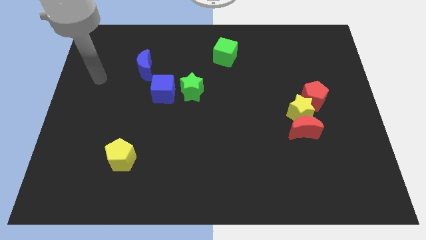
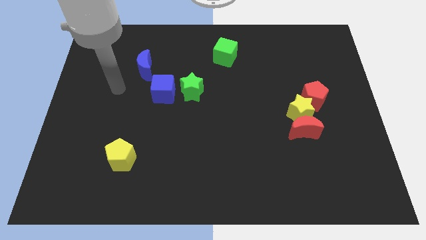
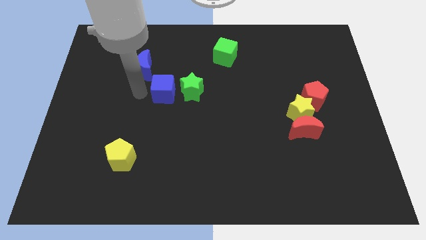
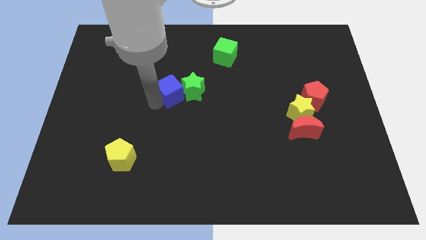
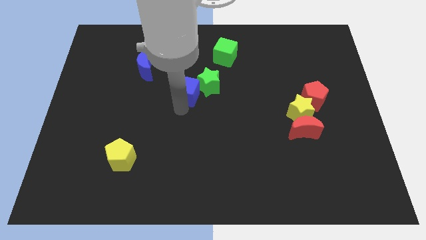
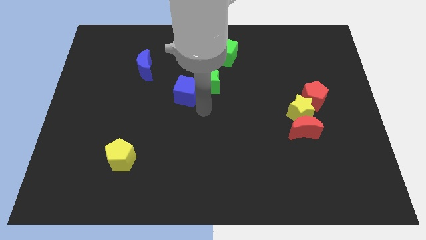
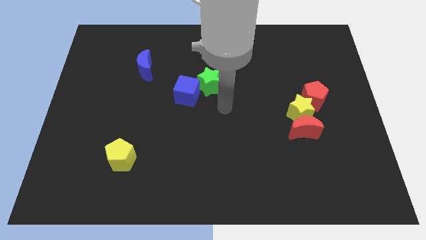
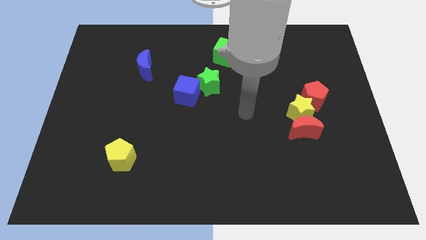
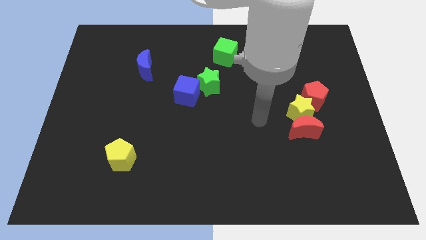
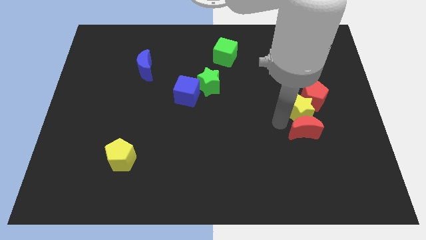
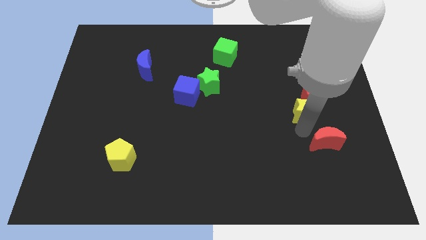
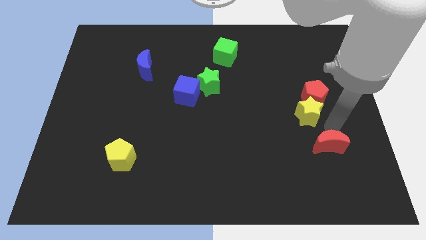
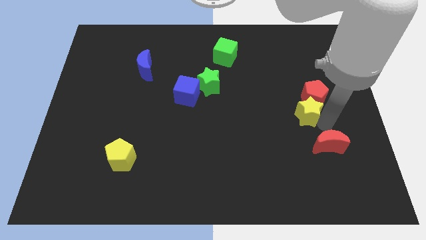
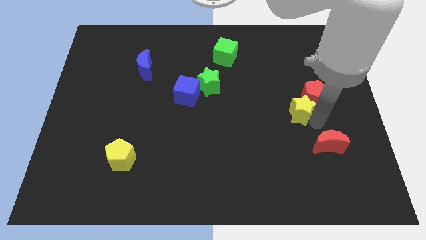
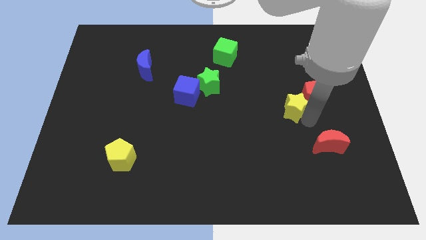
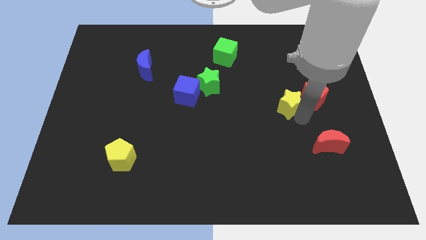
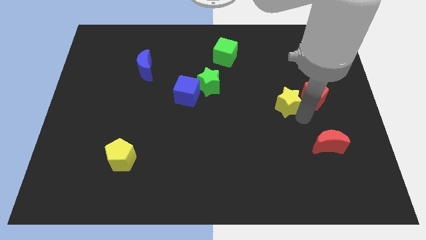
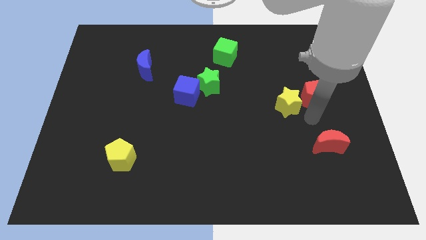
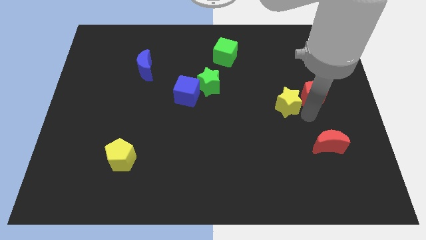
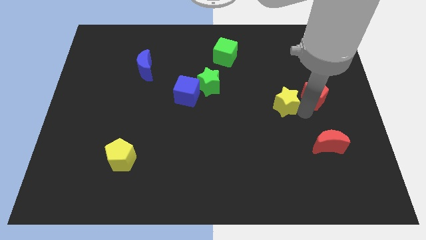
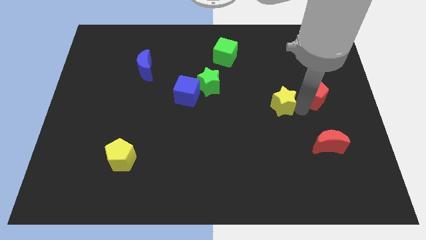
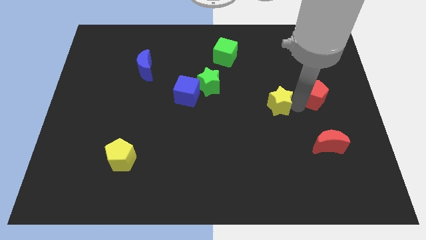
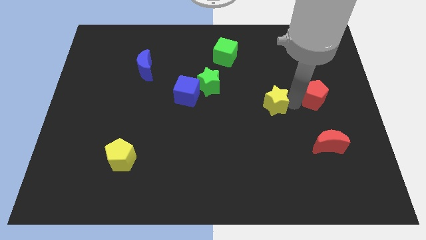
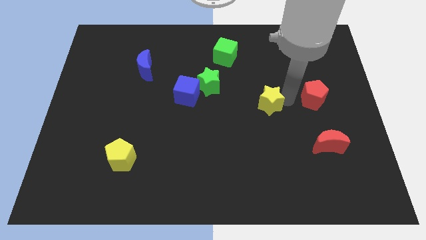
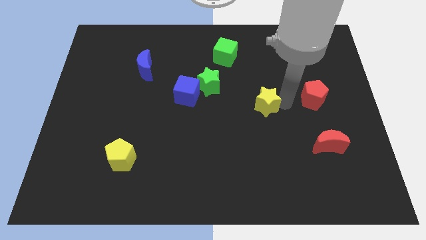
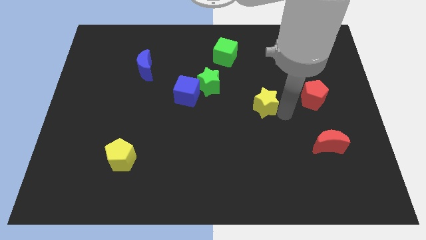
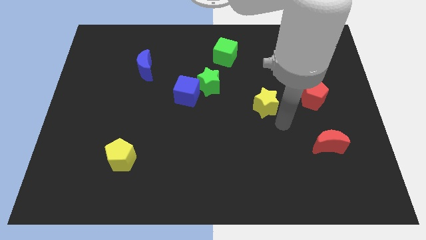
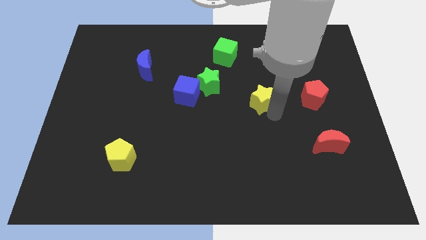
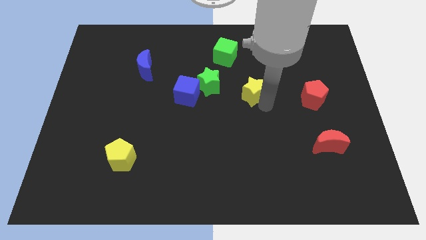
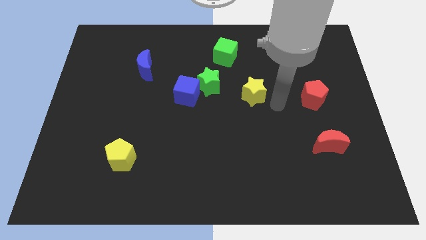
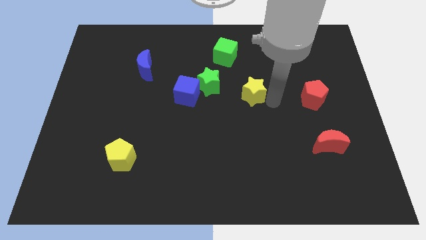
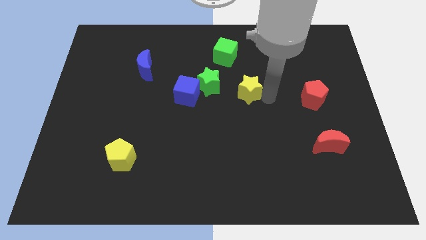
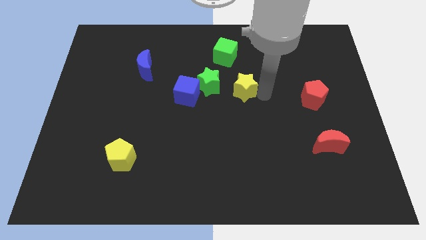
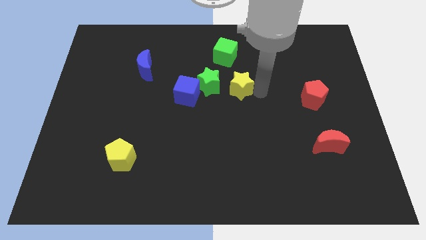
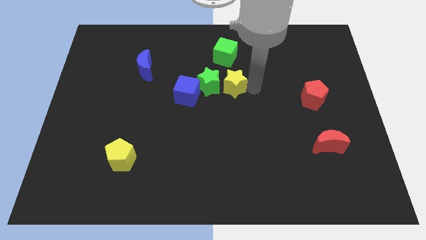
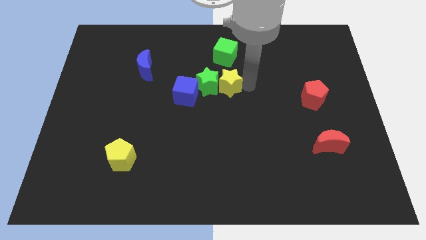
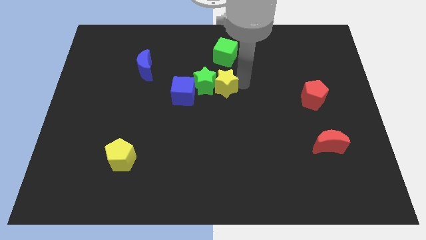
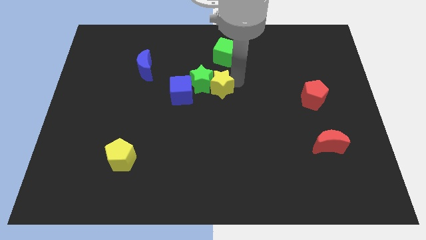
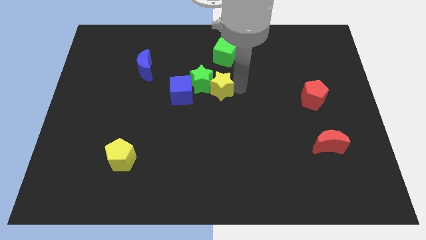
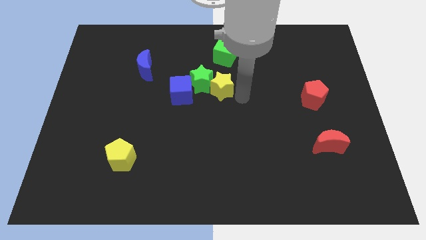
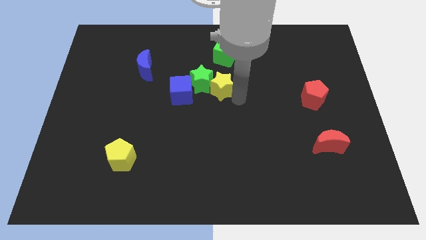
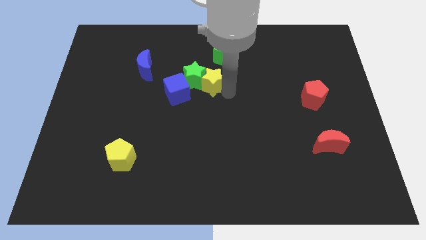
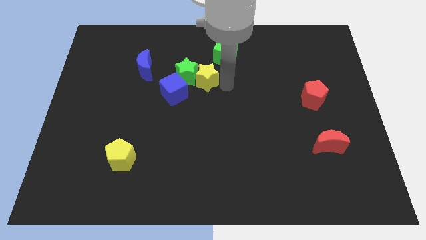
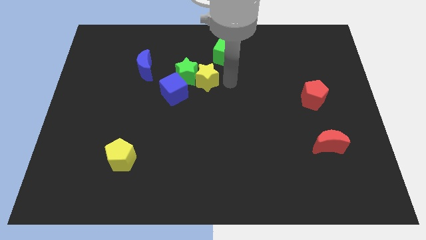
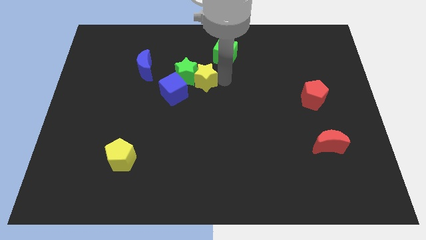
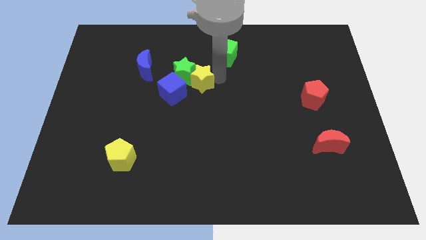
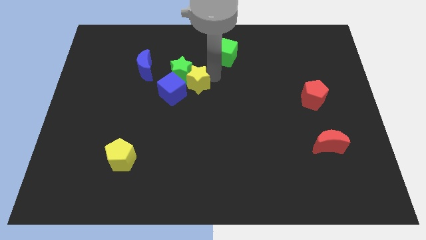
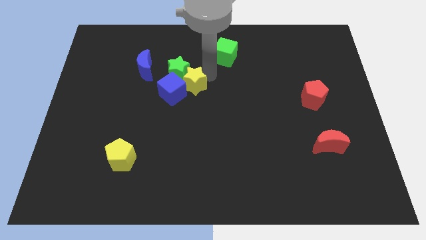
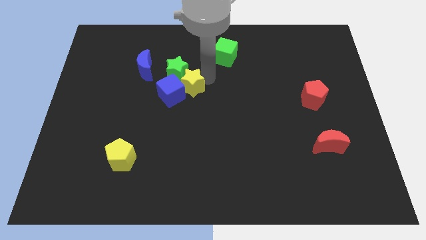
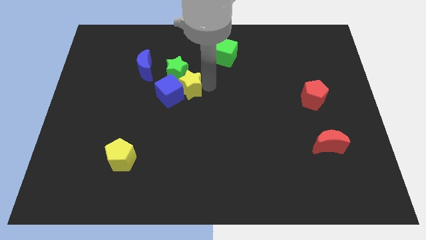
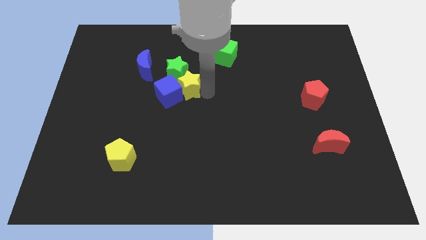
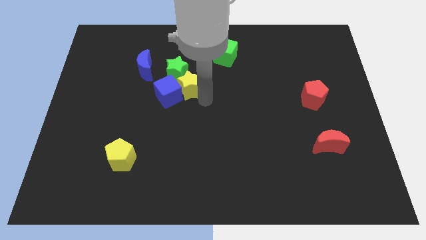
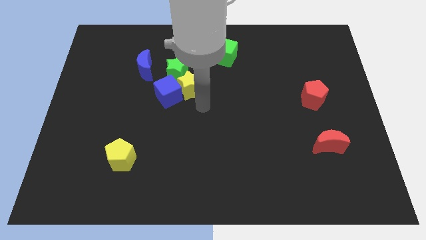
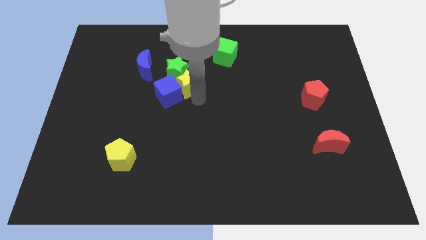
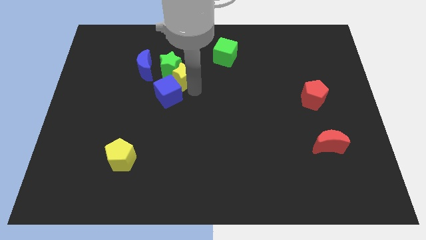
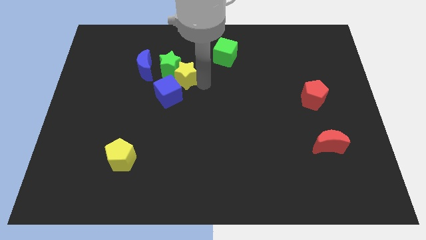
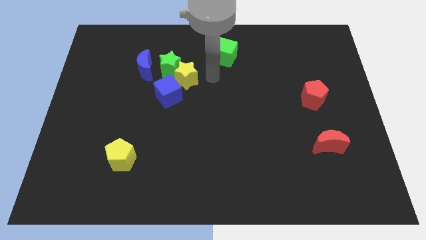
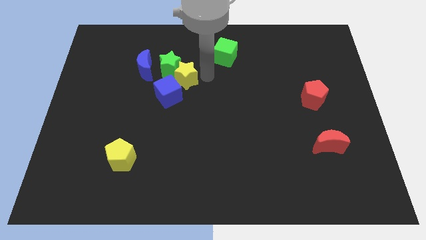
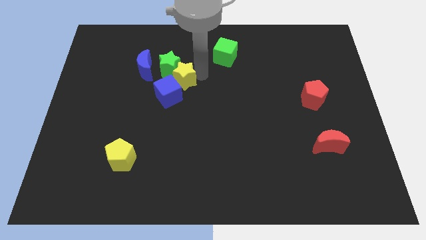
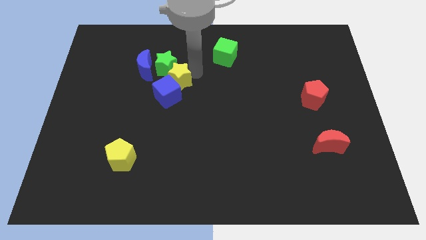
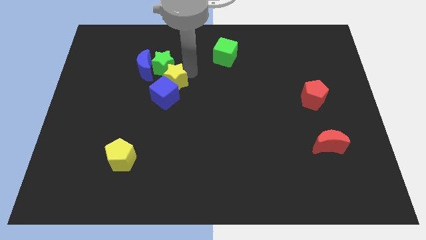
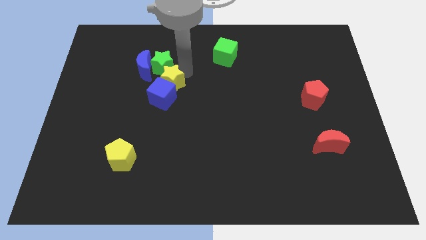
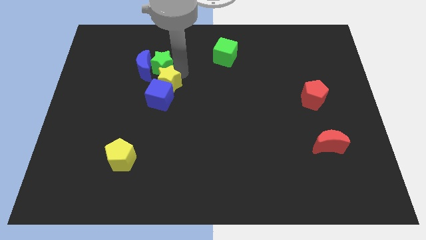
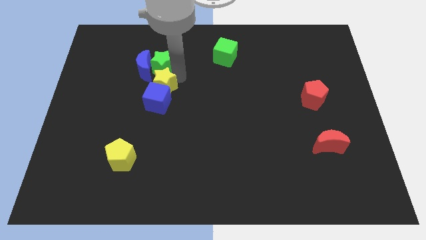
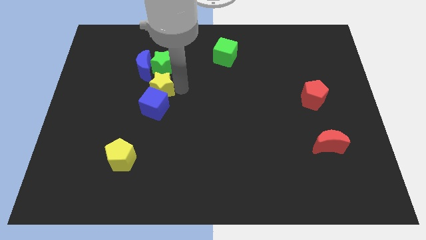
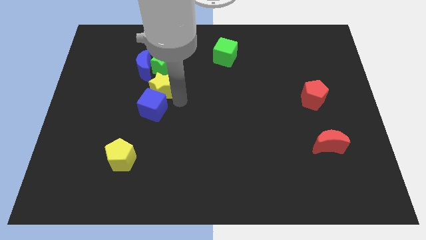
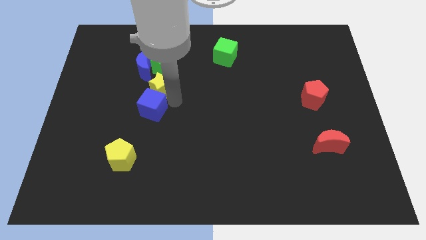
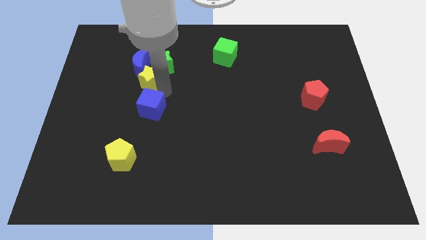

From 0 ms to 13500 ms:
move the yellow star next to the blue moon

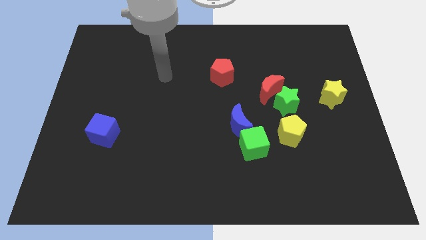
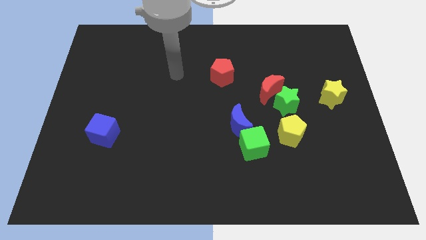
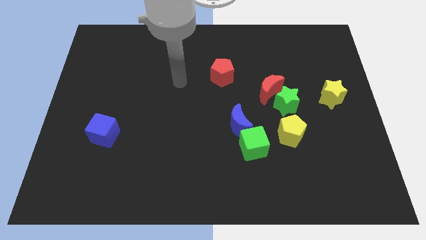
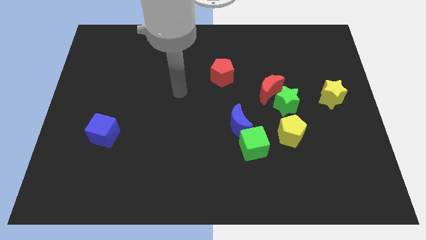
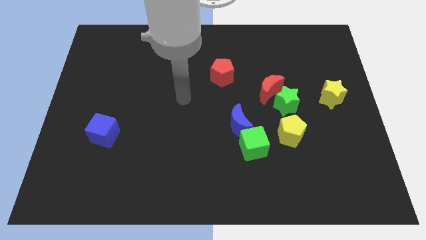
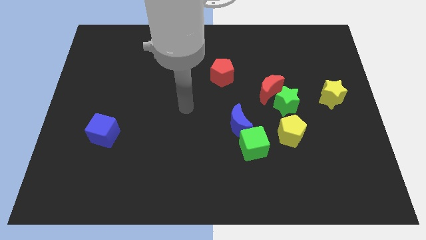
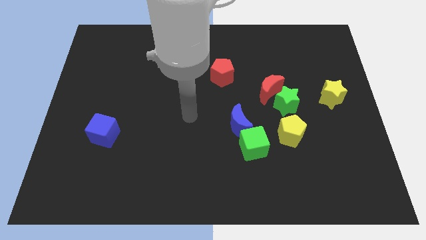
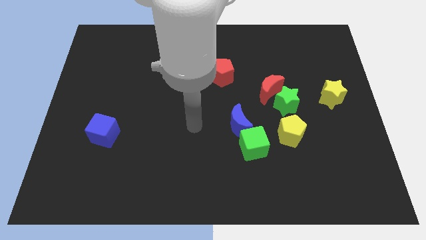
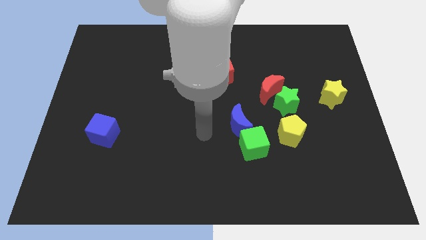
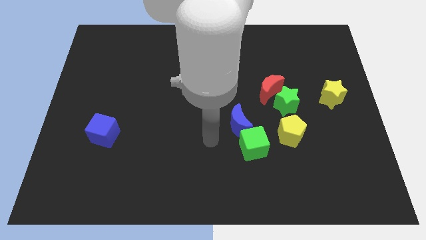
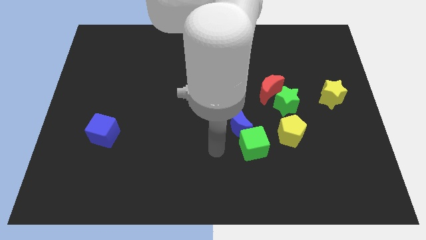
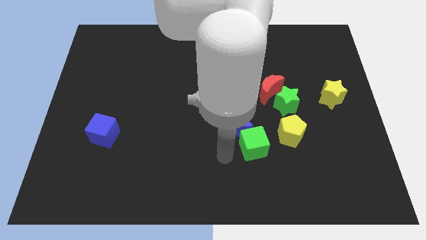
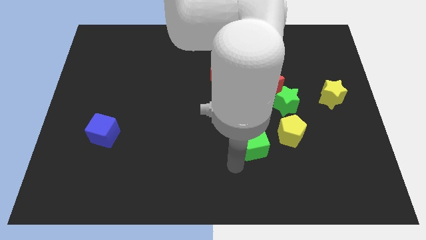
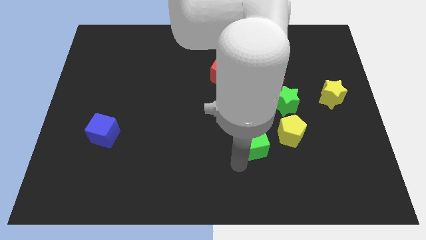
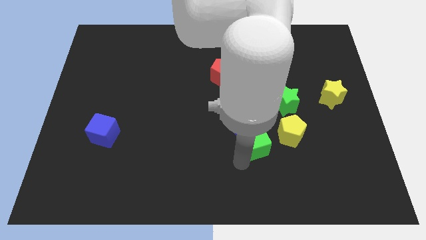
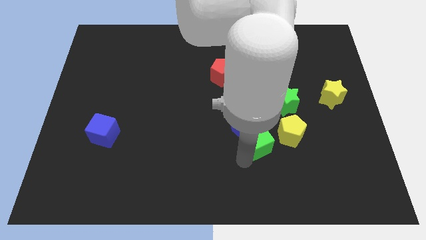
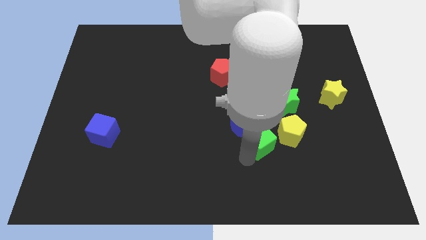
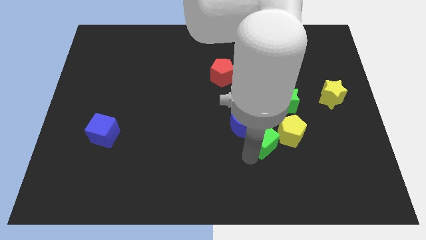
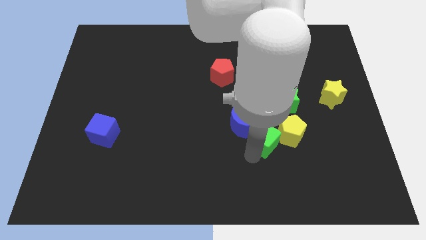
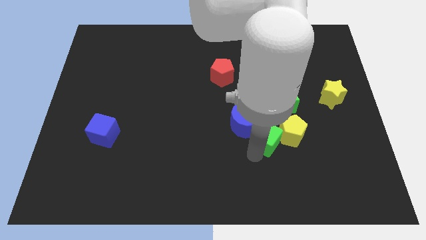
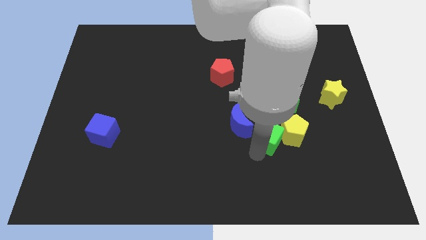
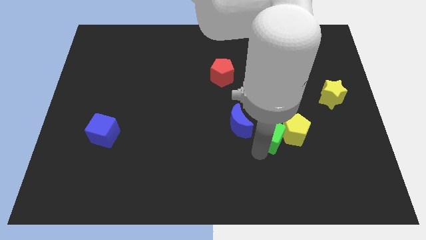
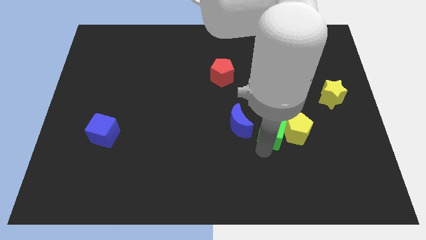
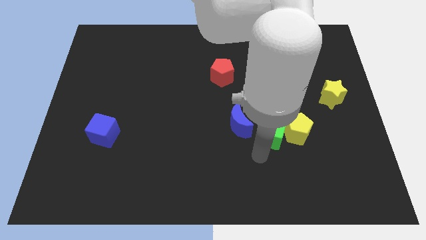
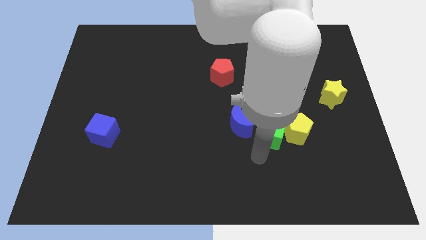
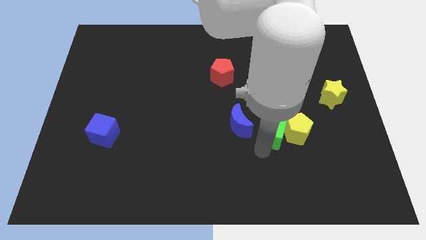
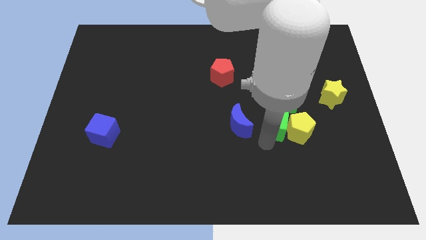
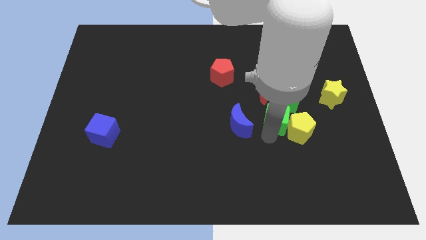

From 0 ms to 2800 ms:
put the green cube towards the green star
